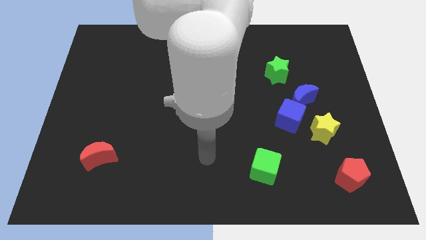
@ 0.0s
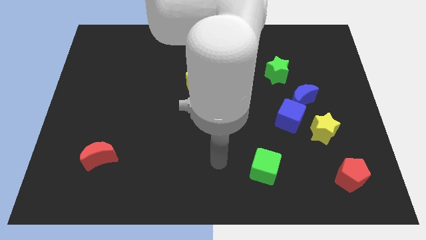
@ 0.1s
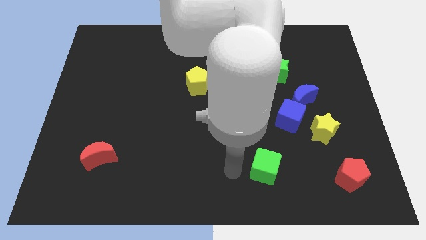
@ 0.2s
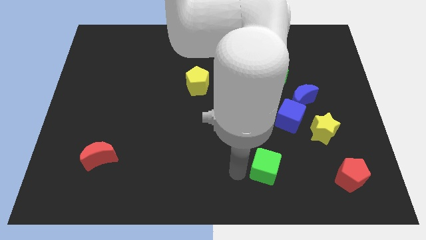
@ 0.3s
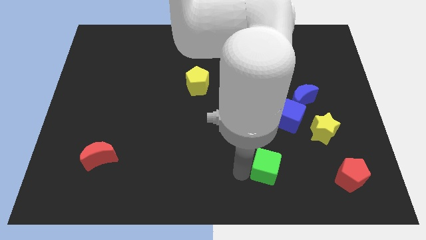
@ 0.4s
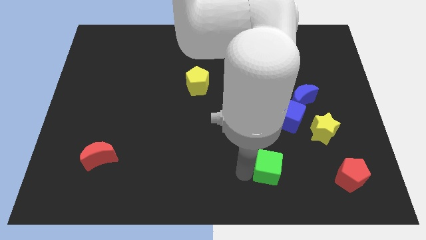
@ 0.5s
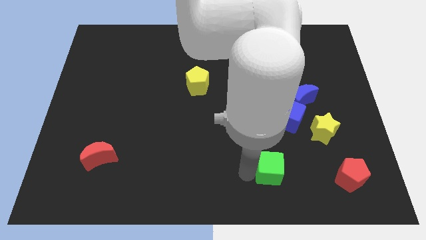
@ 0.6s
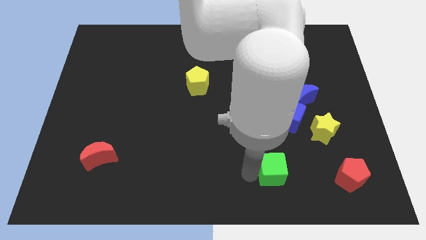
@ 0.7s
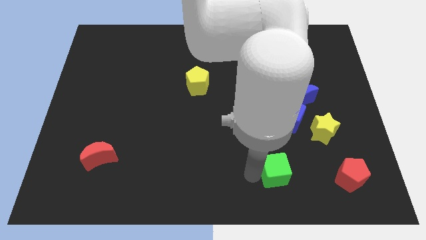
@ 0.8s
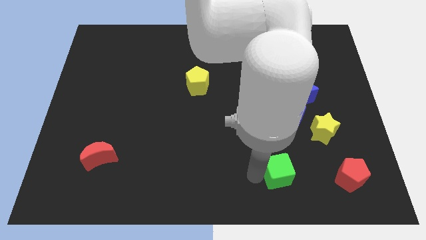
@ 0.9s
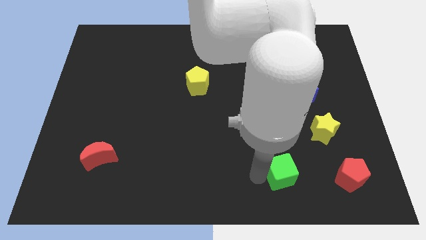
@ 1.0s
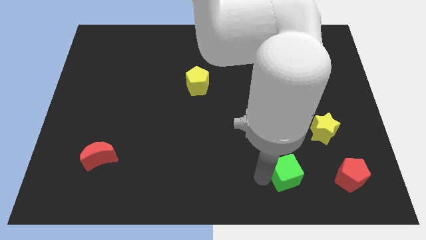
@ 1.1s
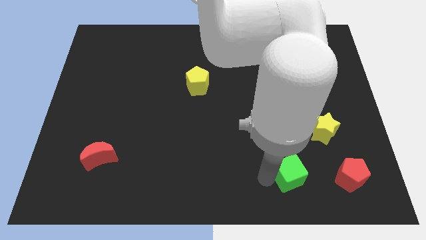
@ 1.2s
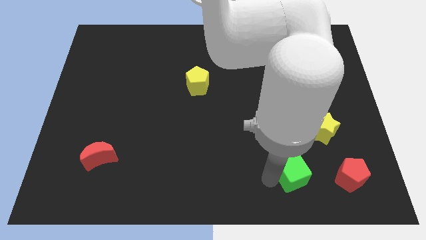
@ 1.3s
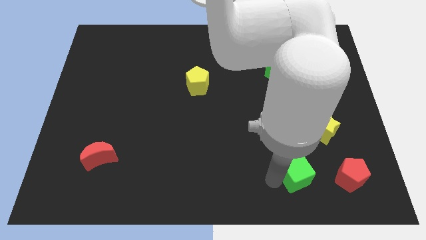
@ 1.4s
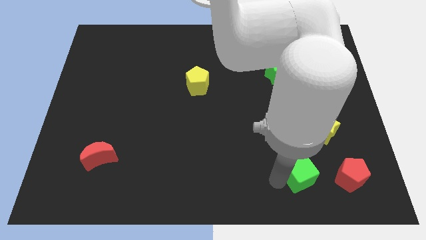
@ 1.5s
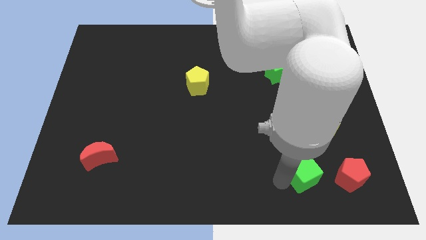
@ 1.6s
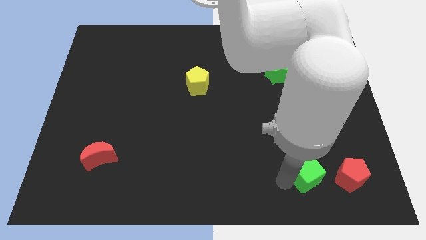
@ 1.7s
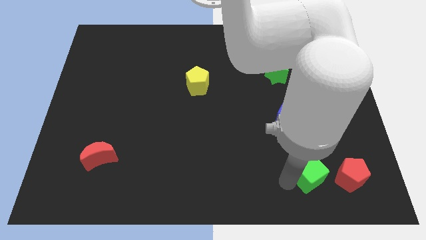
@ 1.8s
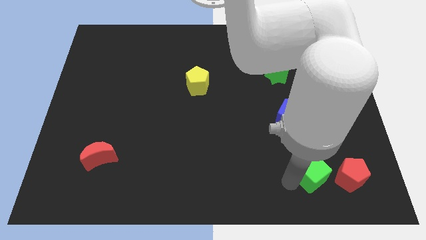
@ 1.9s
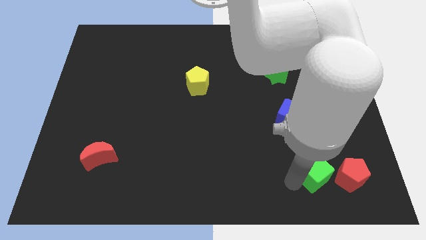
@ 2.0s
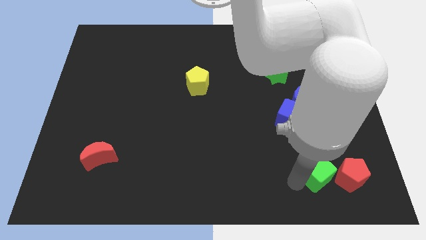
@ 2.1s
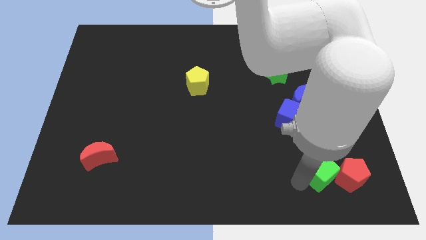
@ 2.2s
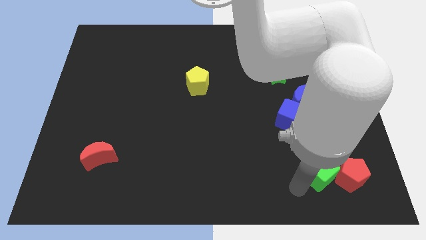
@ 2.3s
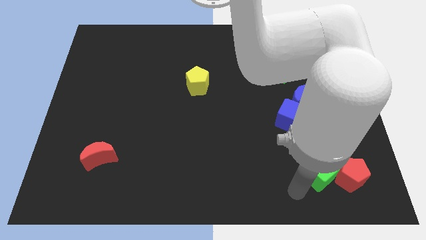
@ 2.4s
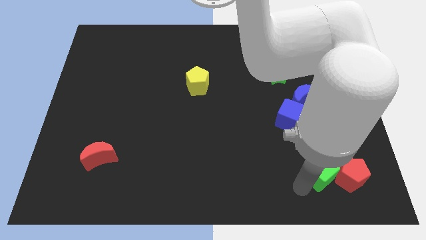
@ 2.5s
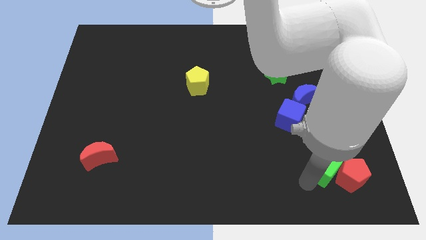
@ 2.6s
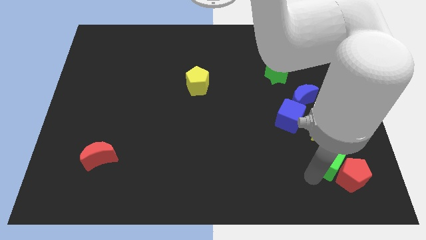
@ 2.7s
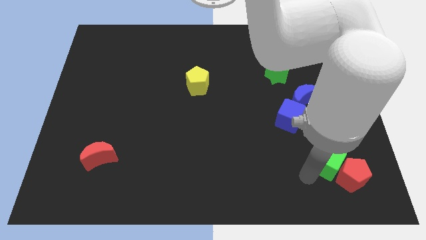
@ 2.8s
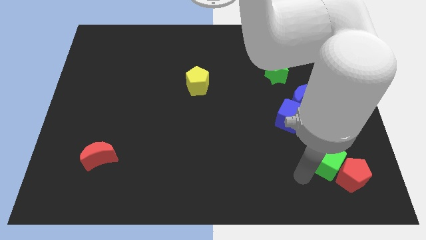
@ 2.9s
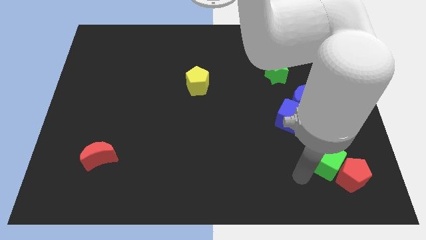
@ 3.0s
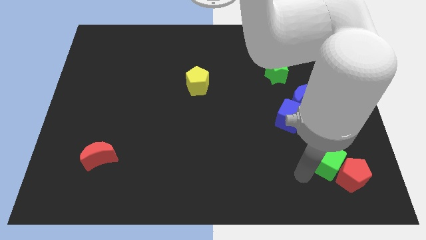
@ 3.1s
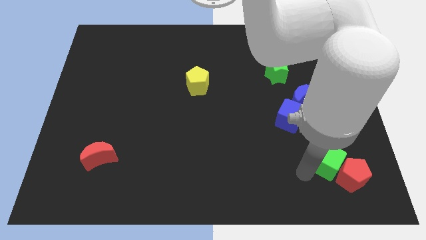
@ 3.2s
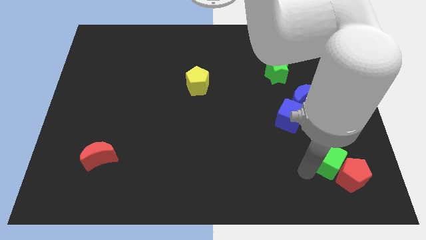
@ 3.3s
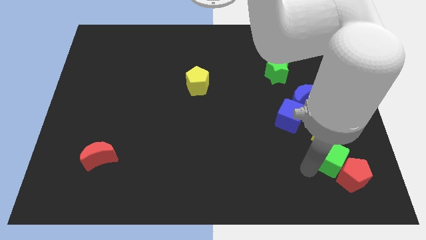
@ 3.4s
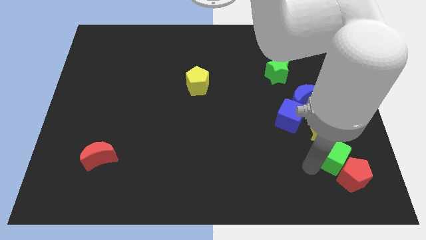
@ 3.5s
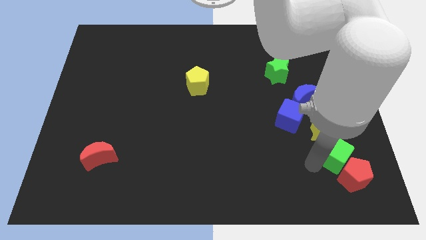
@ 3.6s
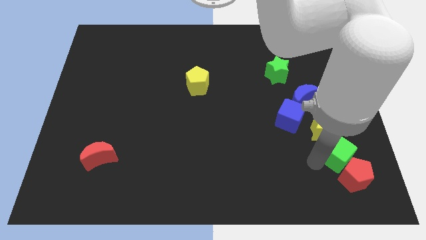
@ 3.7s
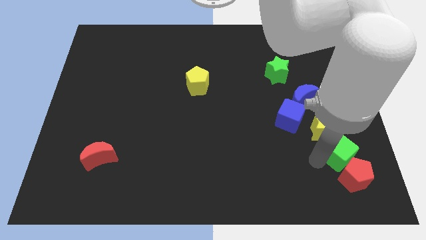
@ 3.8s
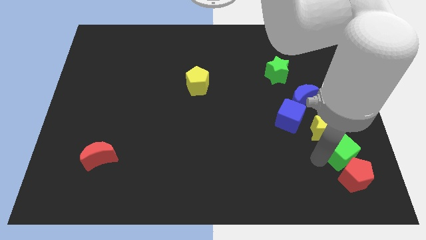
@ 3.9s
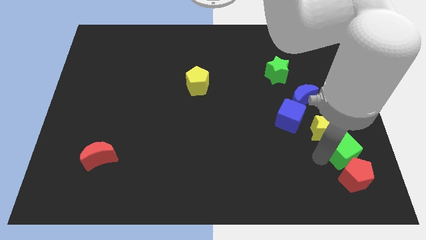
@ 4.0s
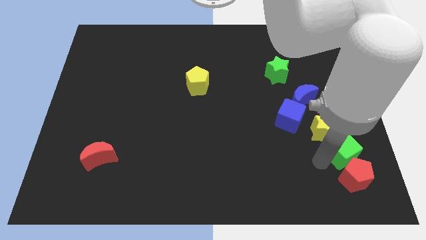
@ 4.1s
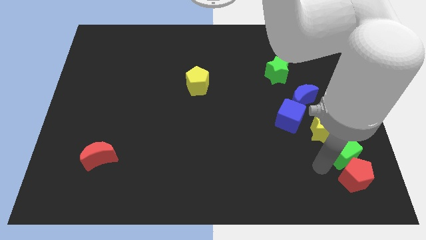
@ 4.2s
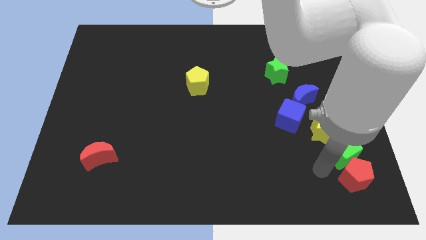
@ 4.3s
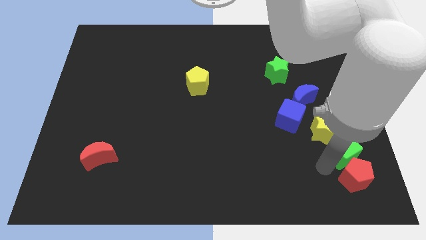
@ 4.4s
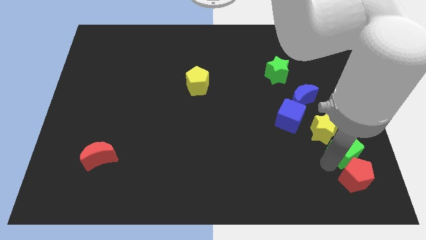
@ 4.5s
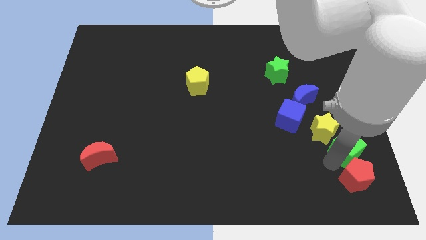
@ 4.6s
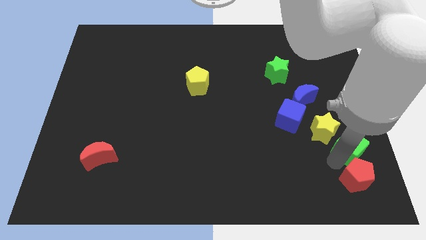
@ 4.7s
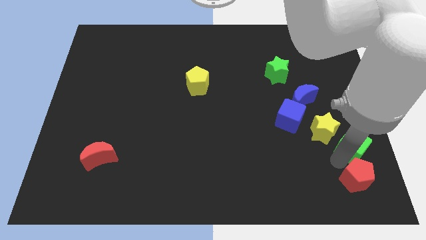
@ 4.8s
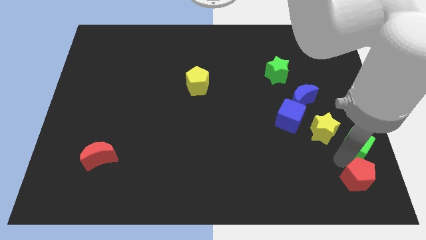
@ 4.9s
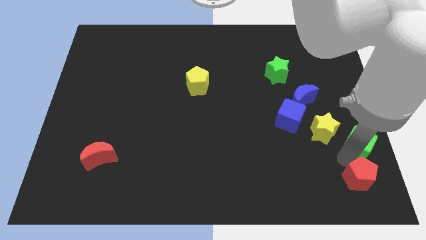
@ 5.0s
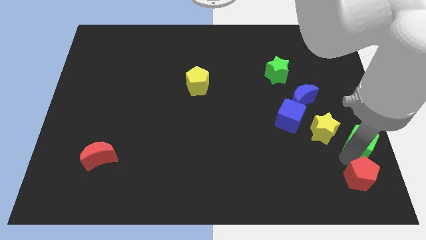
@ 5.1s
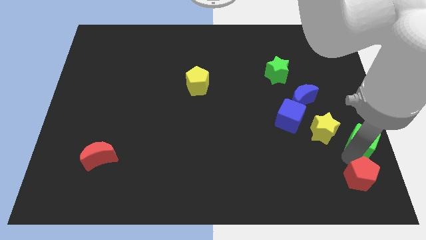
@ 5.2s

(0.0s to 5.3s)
move the green cube to the right side of the board

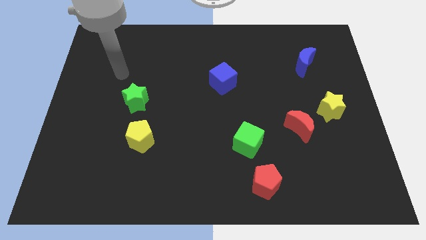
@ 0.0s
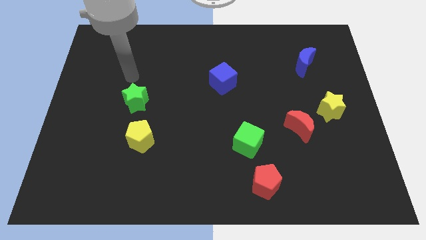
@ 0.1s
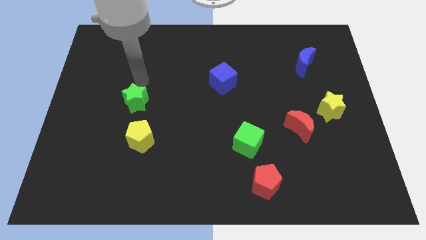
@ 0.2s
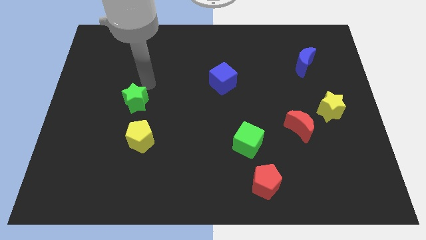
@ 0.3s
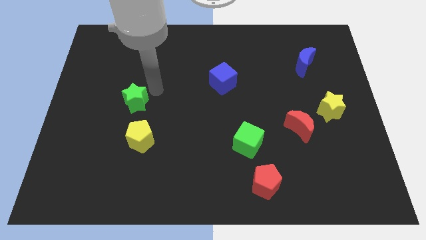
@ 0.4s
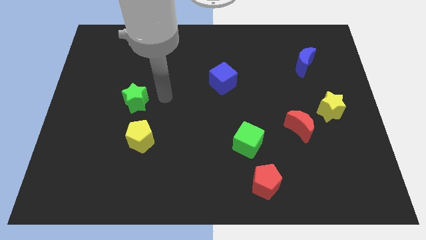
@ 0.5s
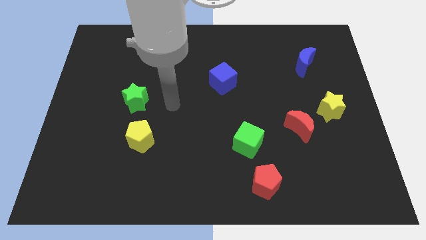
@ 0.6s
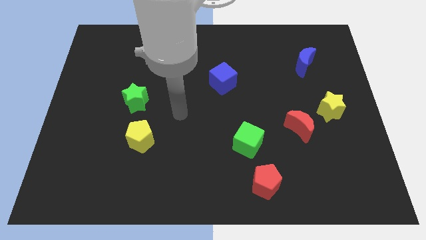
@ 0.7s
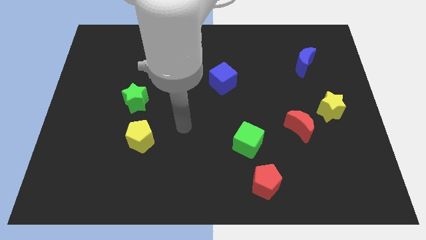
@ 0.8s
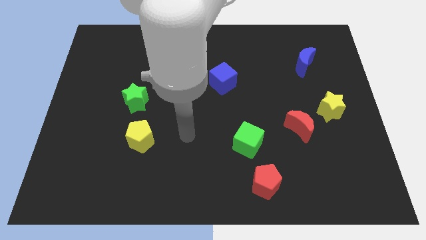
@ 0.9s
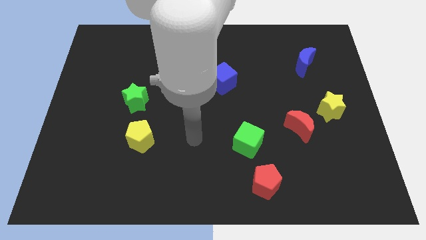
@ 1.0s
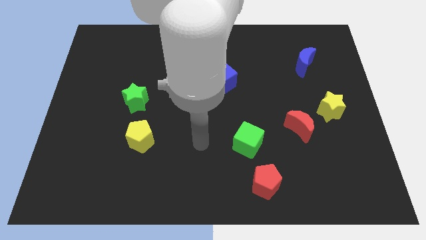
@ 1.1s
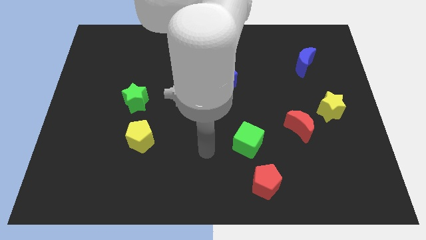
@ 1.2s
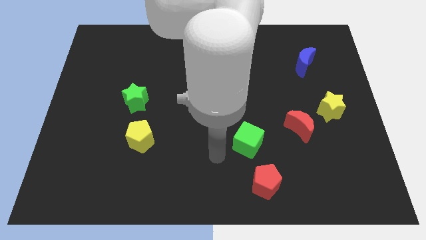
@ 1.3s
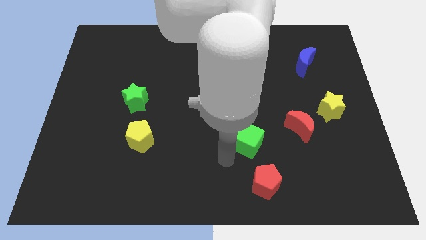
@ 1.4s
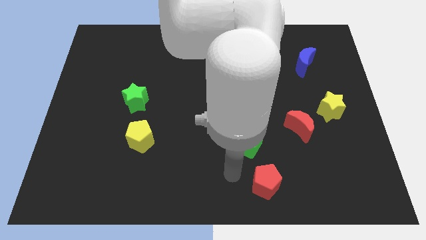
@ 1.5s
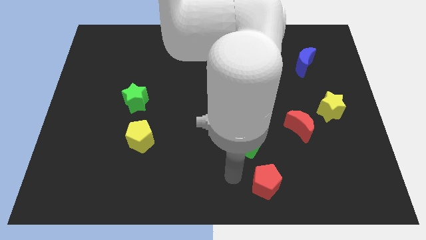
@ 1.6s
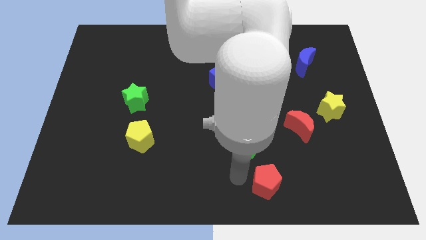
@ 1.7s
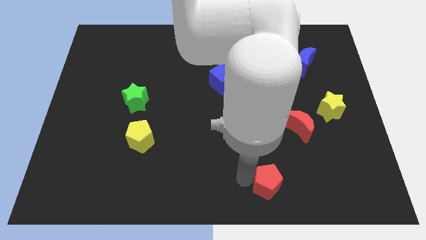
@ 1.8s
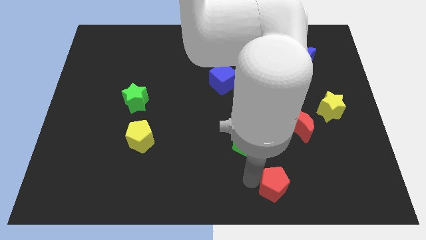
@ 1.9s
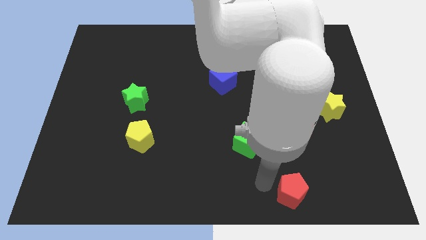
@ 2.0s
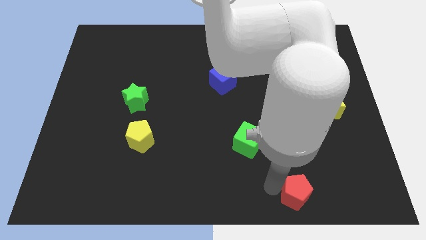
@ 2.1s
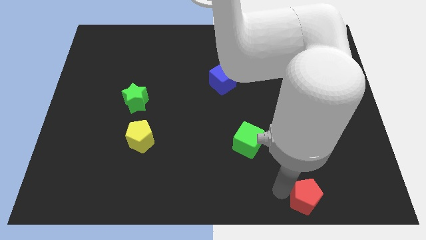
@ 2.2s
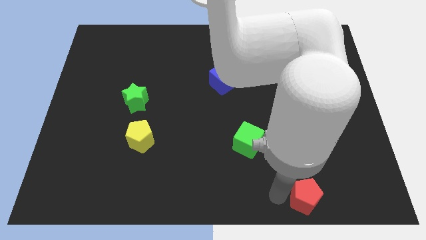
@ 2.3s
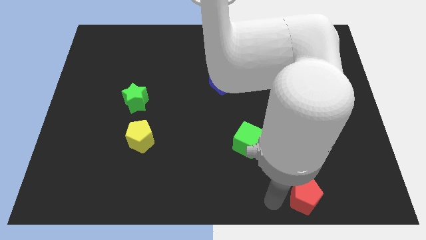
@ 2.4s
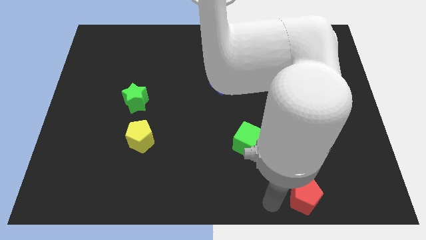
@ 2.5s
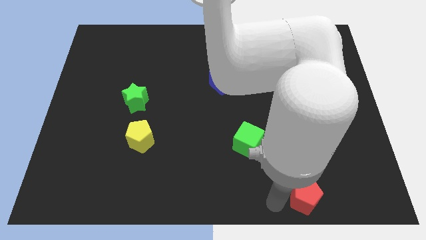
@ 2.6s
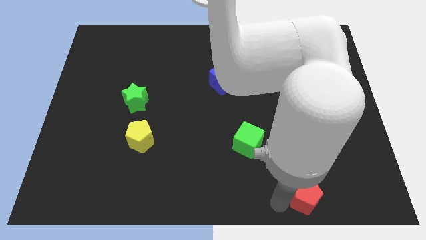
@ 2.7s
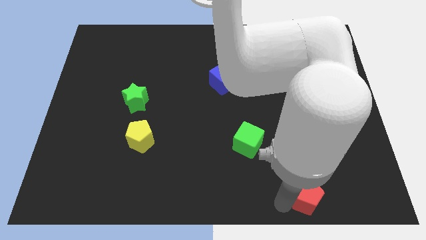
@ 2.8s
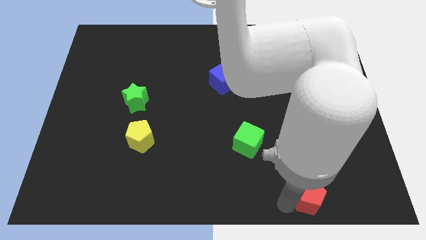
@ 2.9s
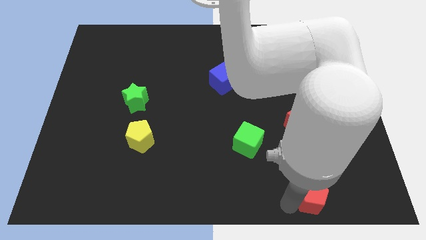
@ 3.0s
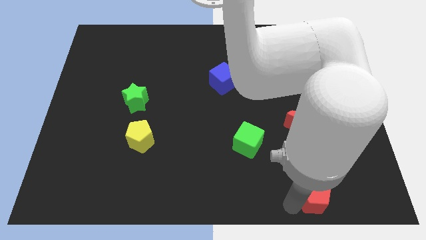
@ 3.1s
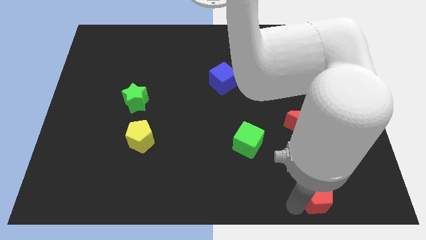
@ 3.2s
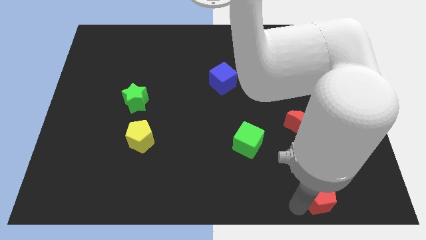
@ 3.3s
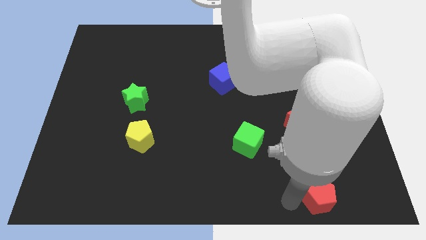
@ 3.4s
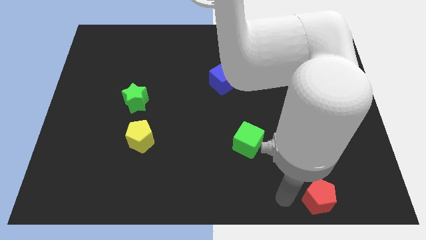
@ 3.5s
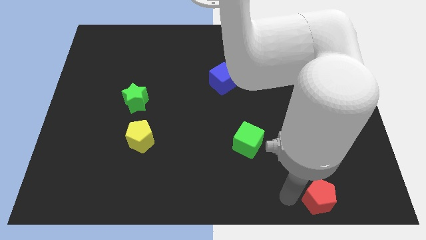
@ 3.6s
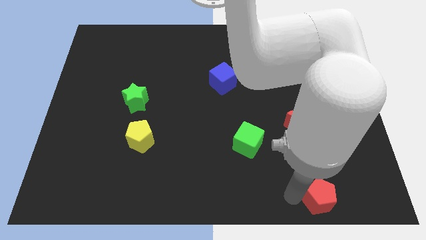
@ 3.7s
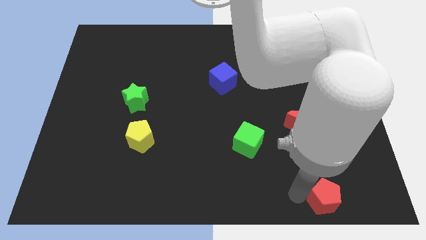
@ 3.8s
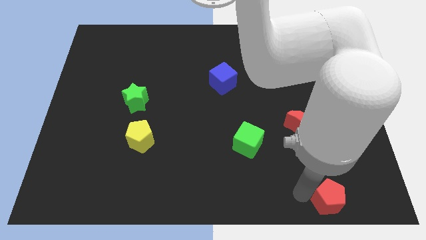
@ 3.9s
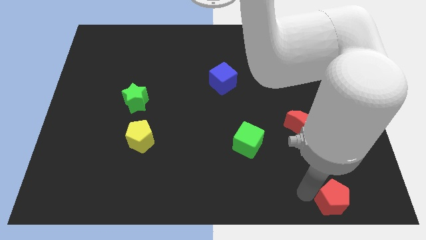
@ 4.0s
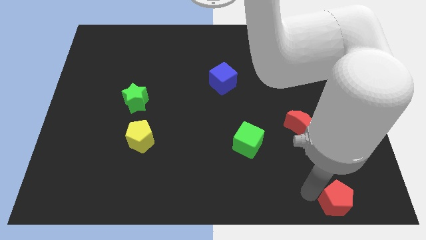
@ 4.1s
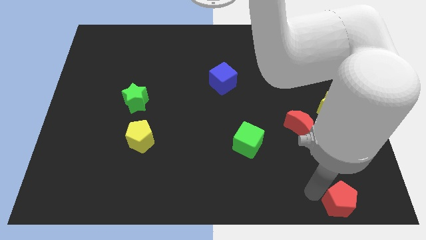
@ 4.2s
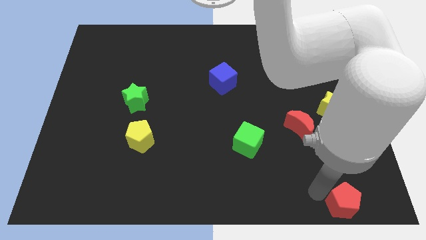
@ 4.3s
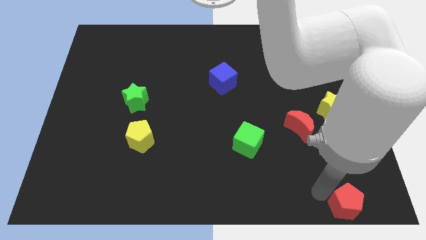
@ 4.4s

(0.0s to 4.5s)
slide the red pentagon to the bottom right
